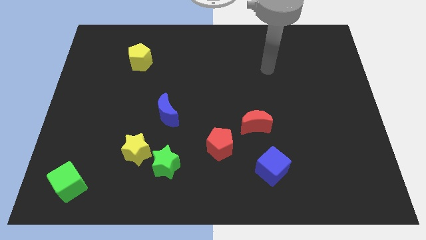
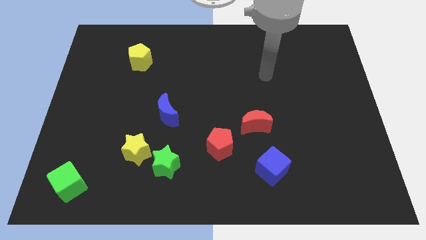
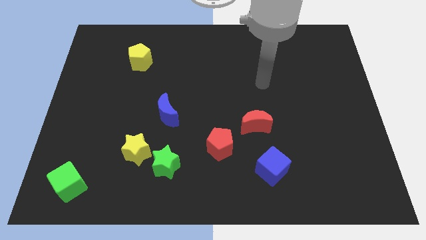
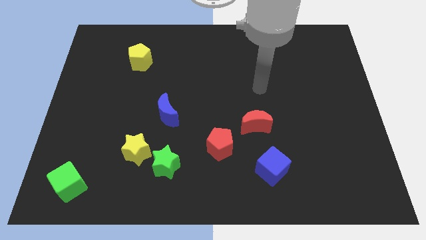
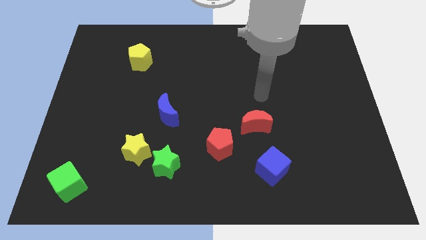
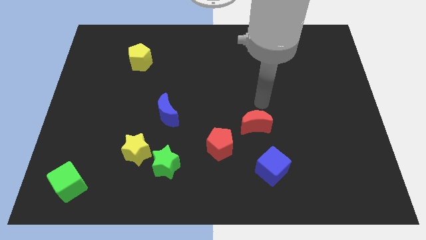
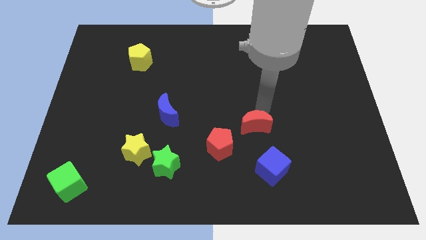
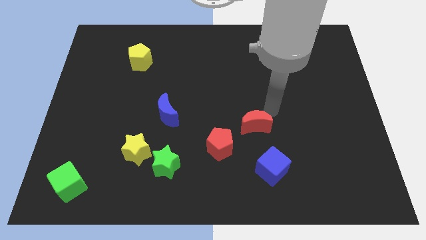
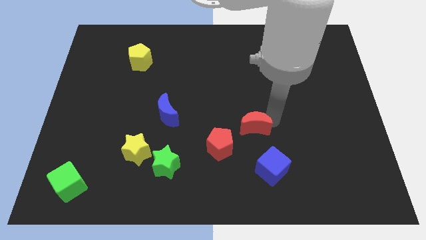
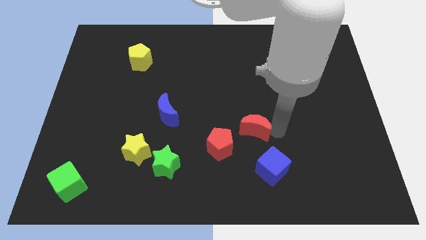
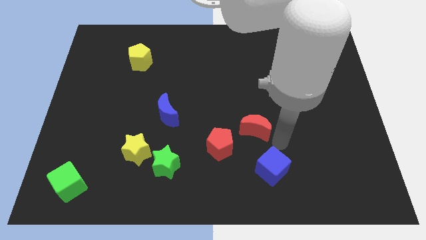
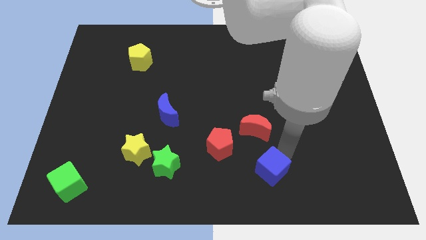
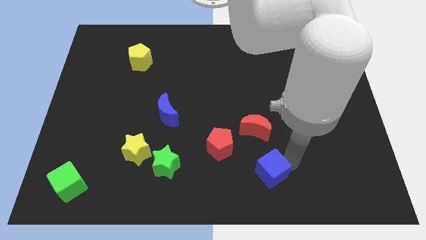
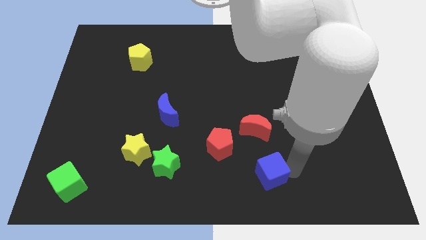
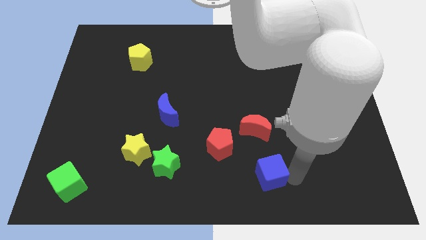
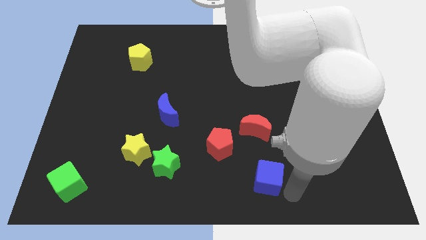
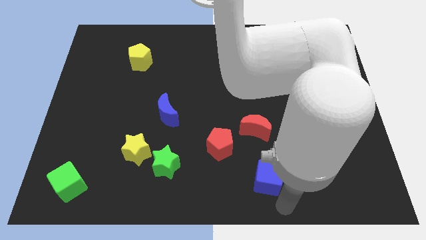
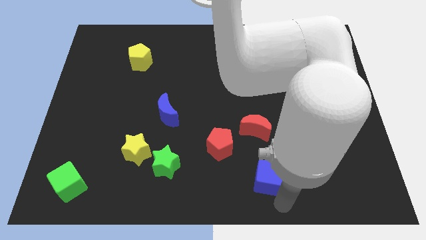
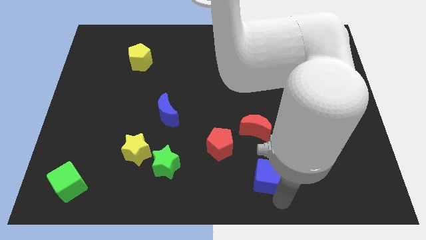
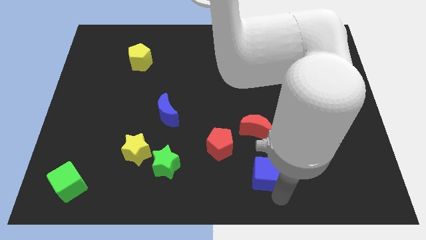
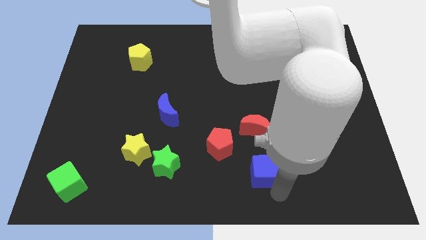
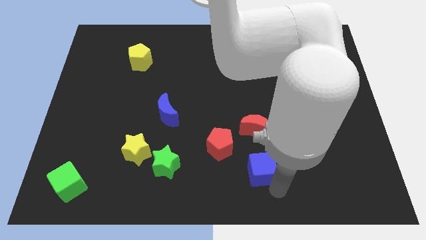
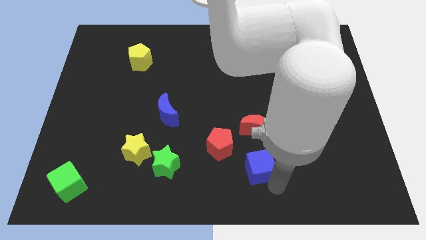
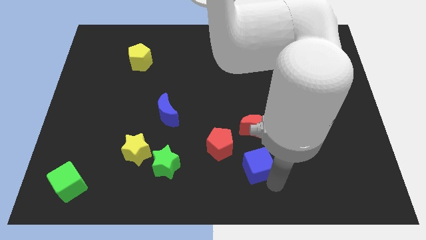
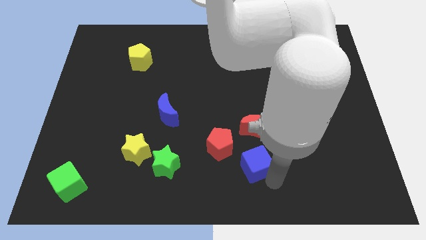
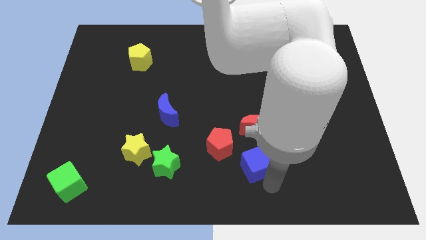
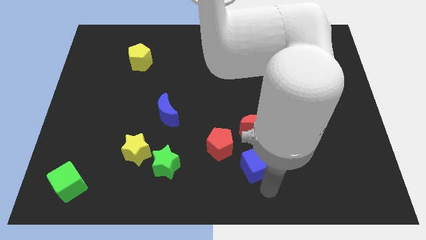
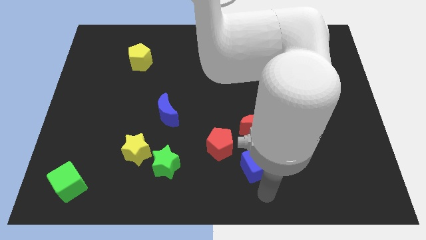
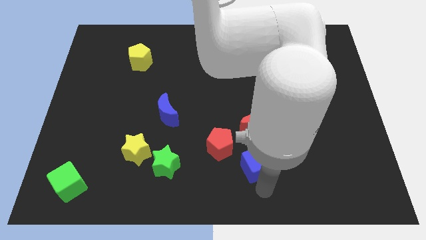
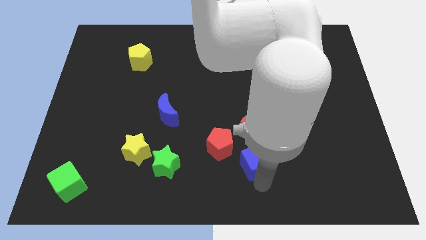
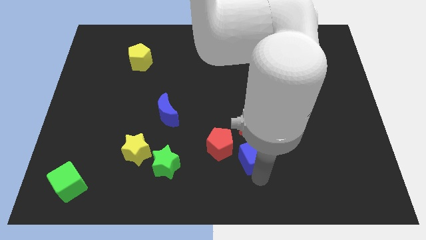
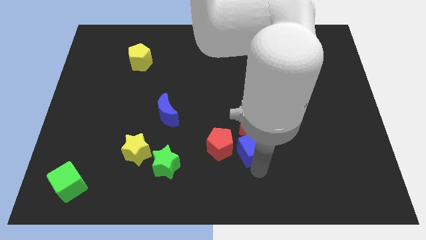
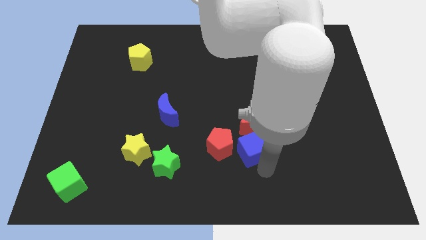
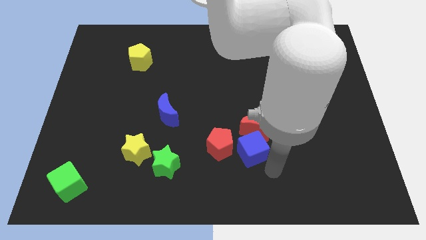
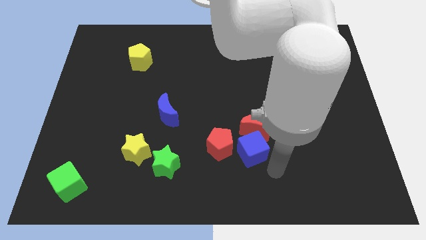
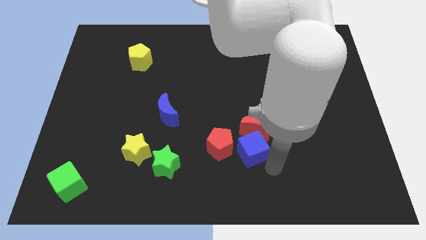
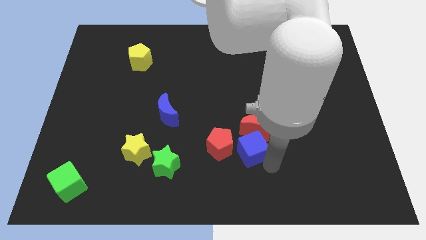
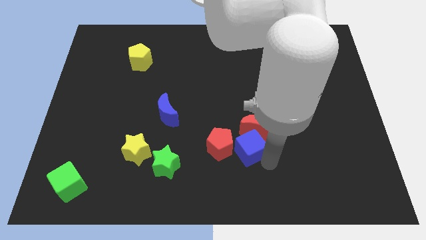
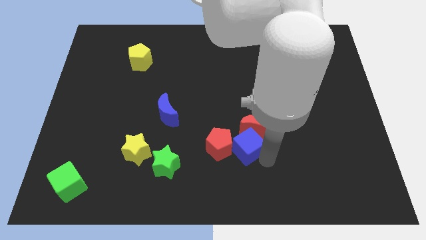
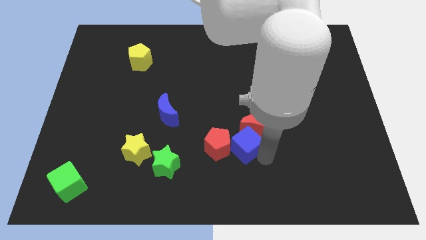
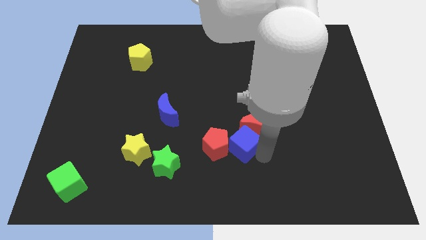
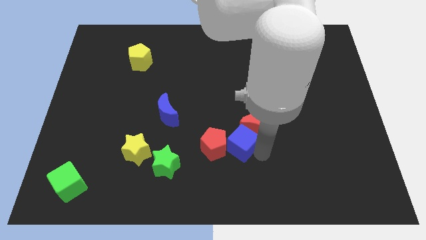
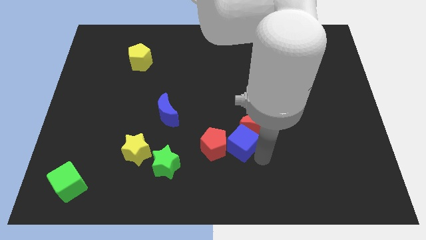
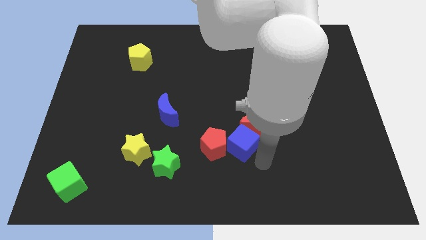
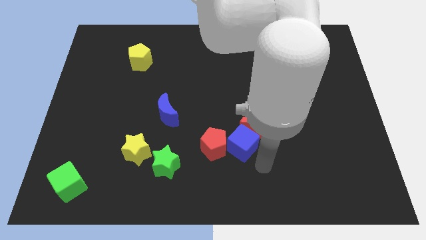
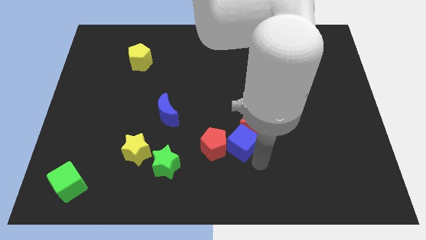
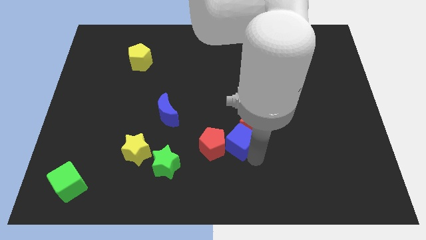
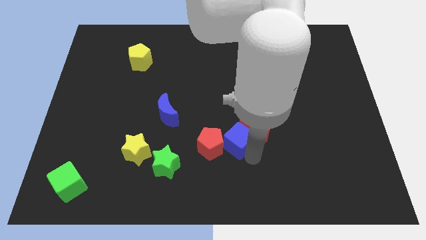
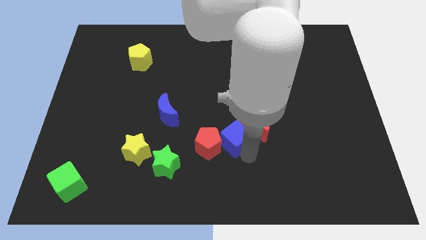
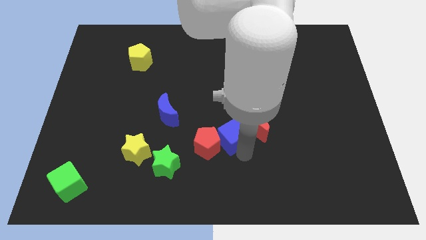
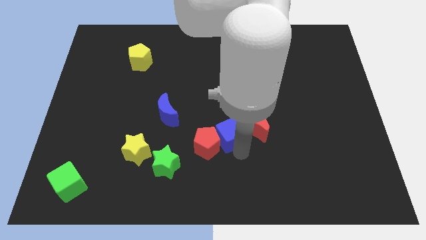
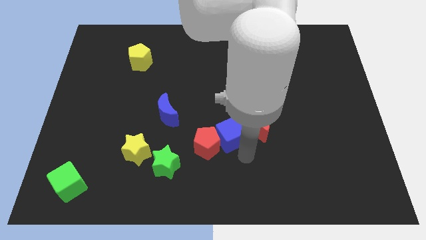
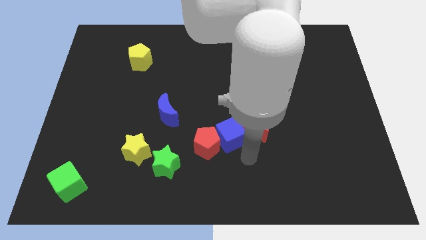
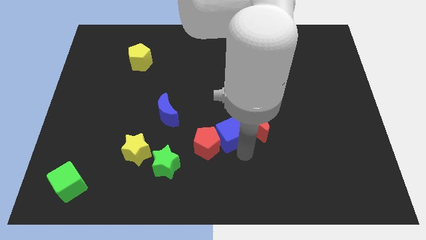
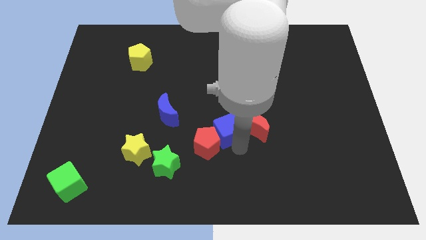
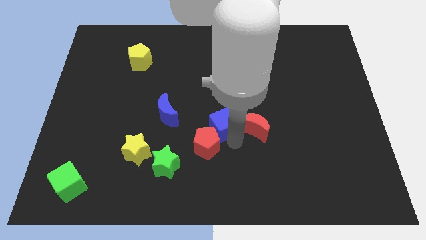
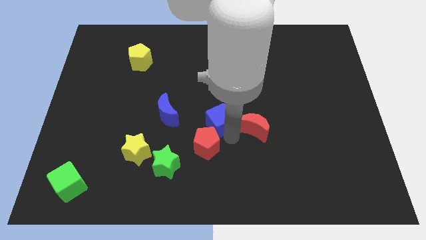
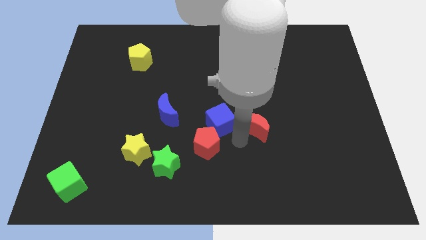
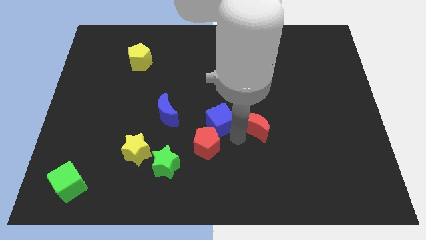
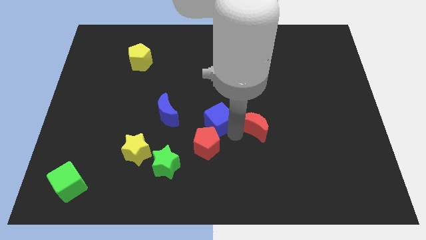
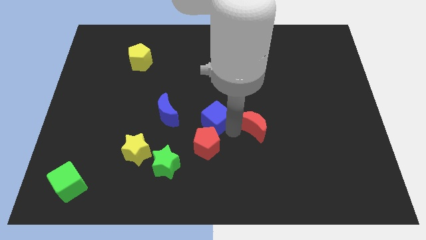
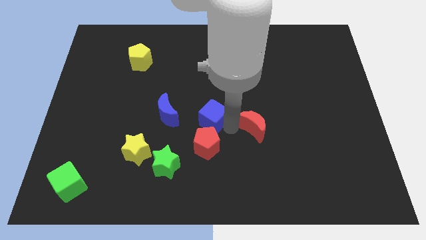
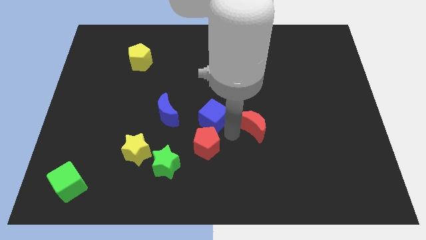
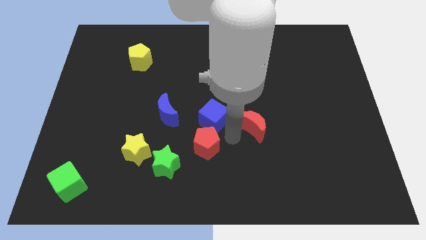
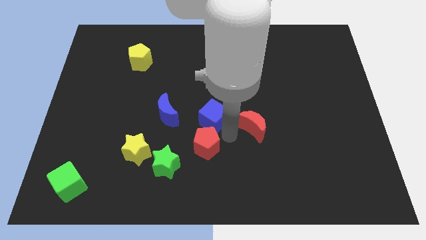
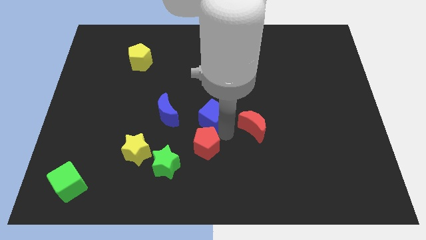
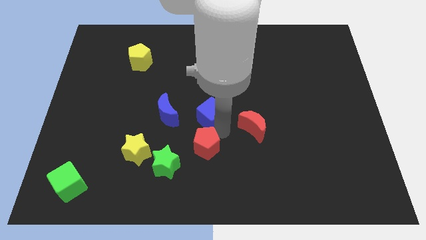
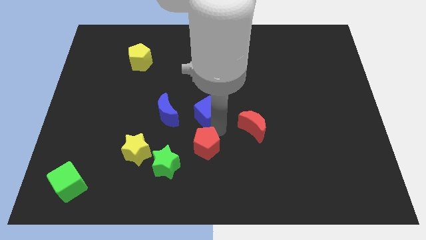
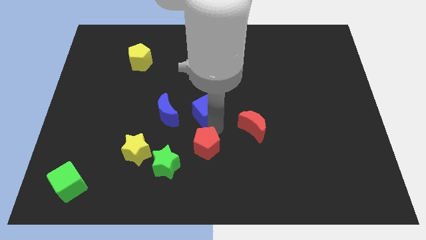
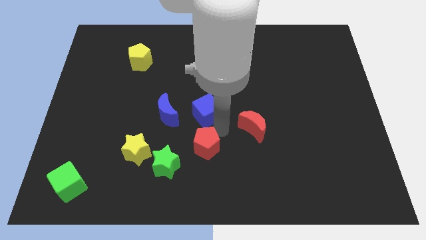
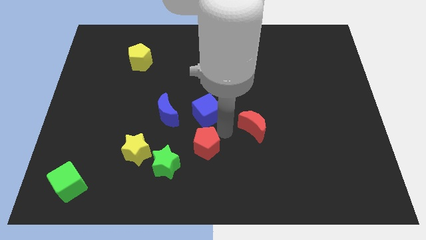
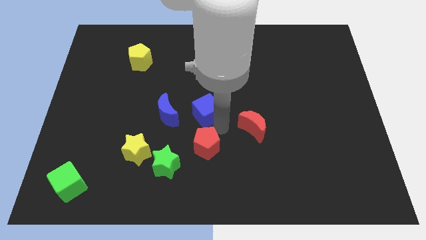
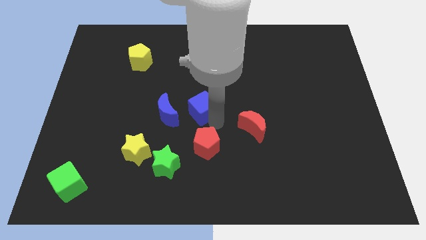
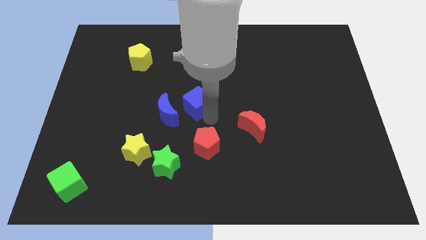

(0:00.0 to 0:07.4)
push the blue cube to the top right of the blue moon

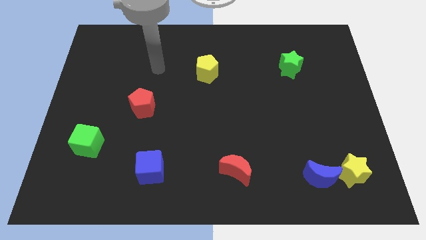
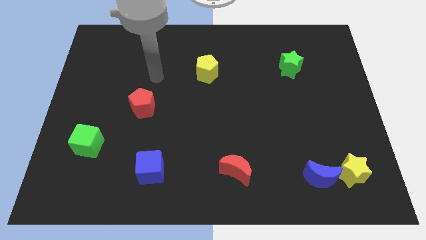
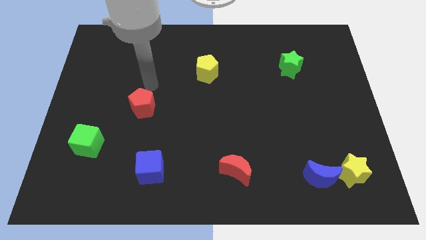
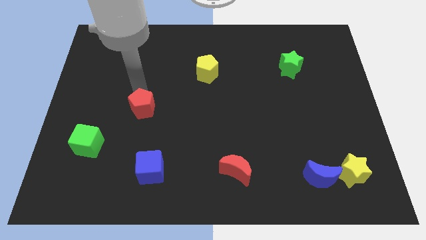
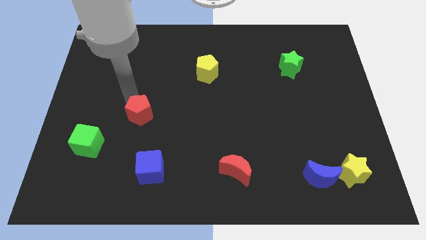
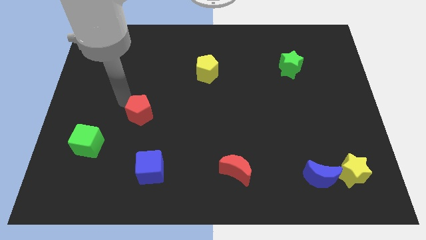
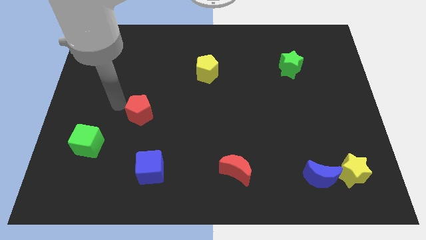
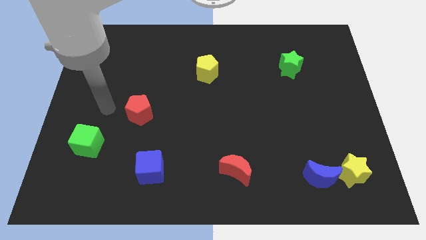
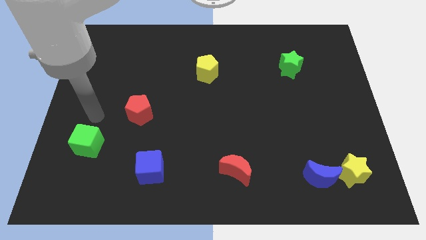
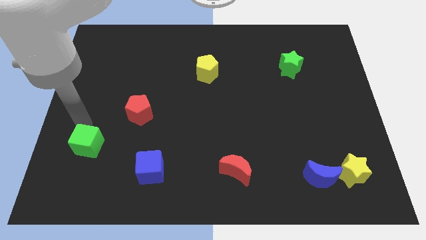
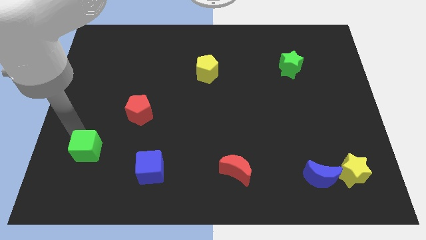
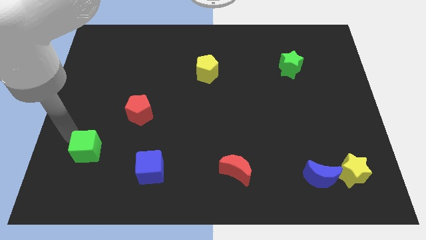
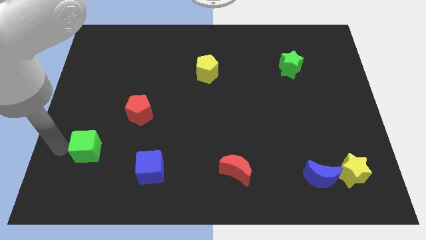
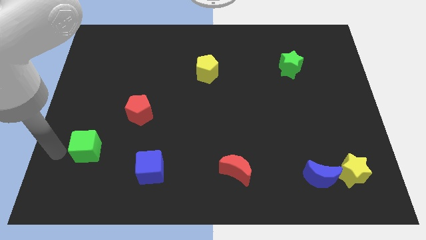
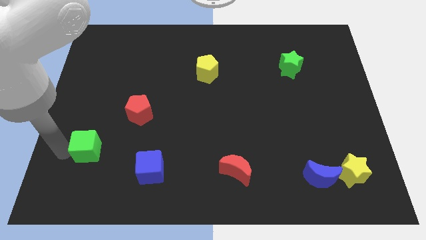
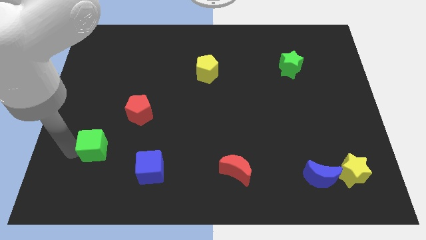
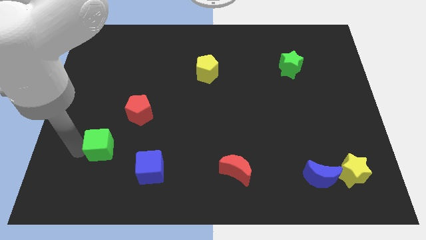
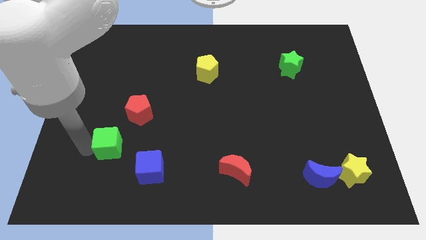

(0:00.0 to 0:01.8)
move the green cube to the top left of the blue cube
